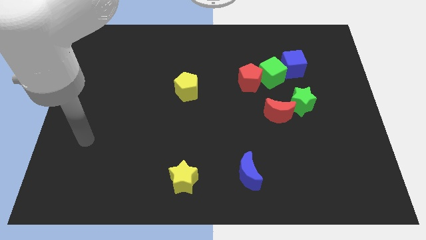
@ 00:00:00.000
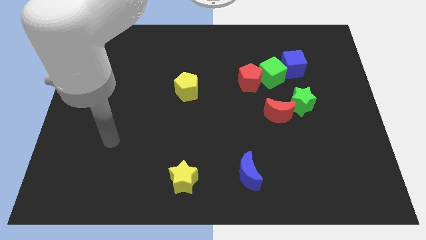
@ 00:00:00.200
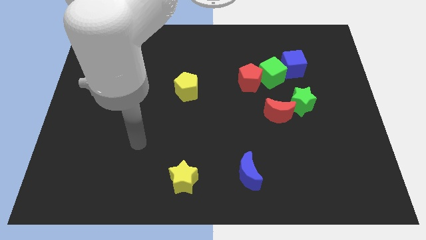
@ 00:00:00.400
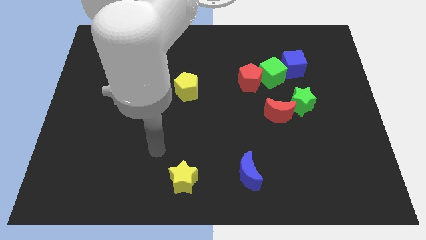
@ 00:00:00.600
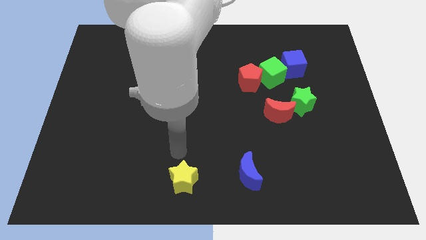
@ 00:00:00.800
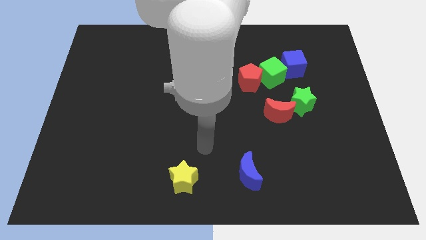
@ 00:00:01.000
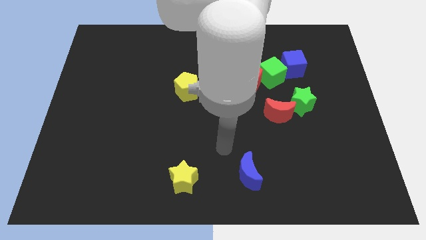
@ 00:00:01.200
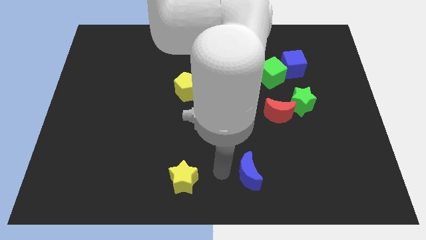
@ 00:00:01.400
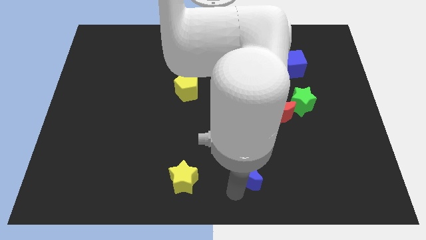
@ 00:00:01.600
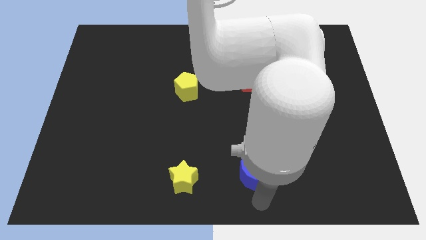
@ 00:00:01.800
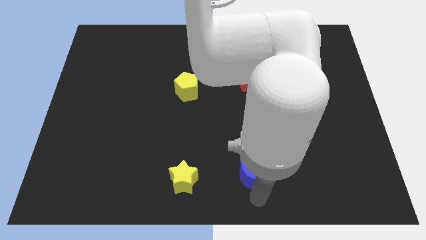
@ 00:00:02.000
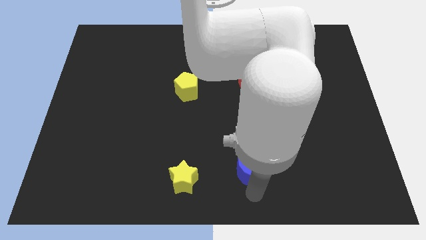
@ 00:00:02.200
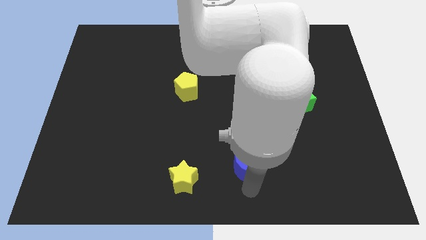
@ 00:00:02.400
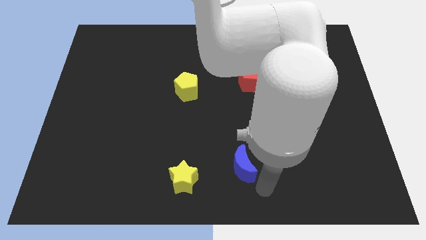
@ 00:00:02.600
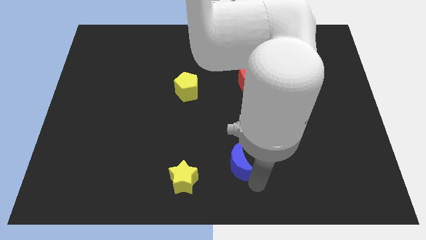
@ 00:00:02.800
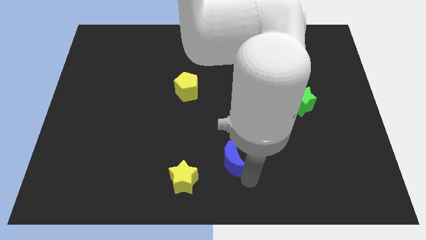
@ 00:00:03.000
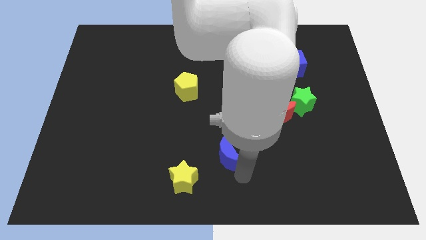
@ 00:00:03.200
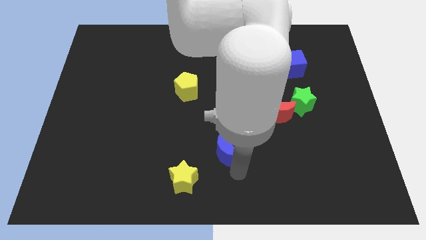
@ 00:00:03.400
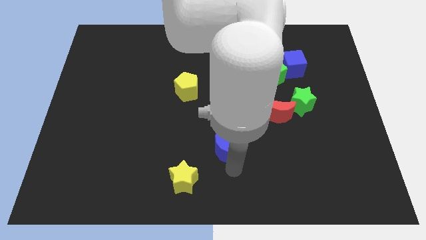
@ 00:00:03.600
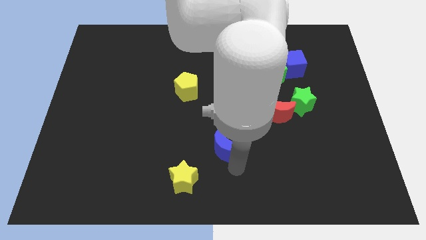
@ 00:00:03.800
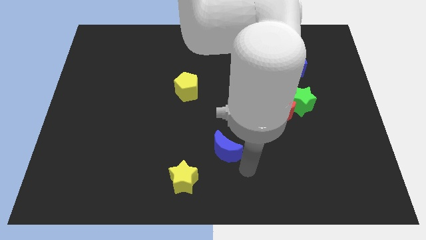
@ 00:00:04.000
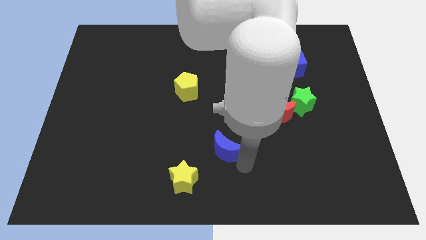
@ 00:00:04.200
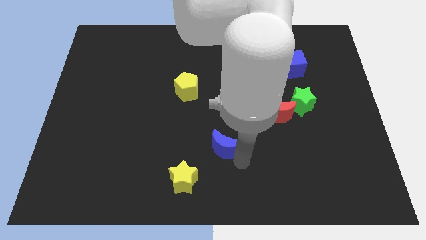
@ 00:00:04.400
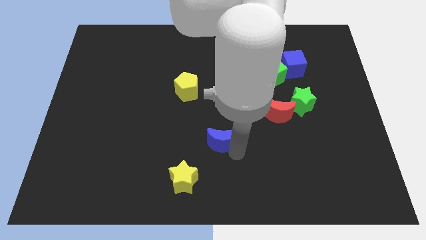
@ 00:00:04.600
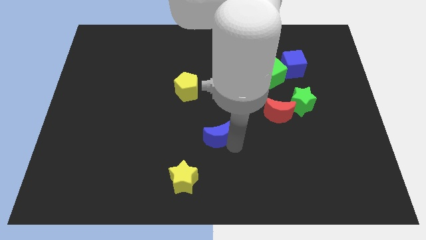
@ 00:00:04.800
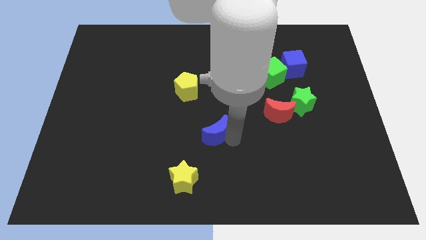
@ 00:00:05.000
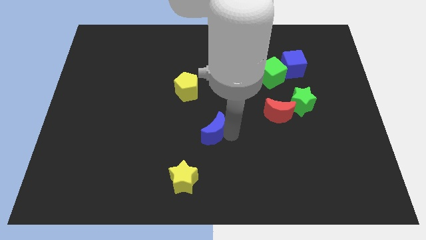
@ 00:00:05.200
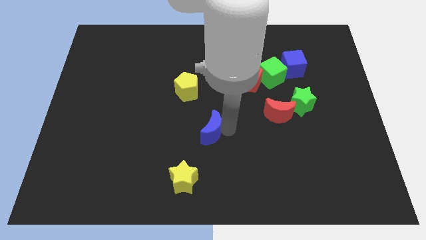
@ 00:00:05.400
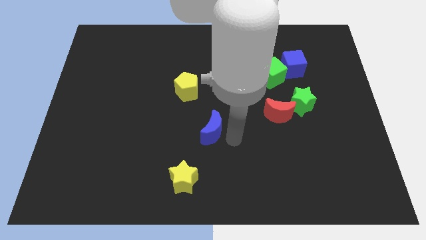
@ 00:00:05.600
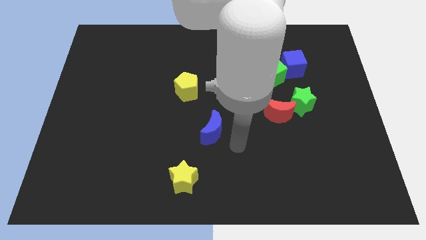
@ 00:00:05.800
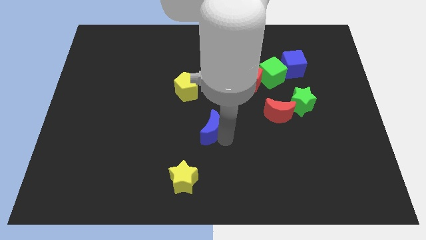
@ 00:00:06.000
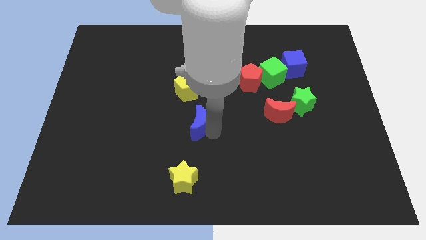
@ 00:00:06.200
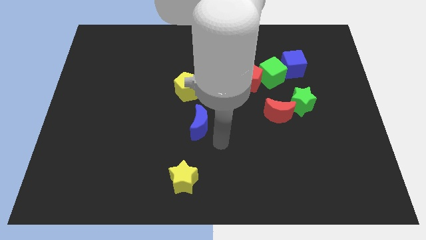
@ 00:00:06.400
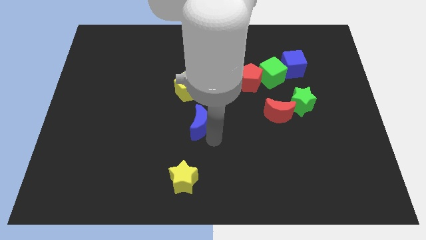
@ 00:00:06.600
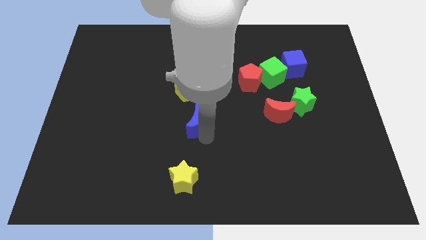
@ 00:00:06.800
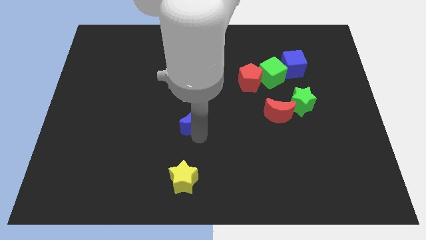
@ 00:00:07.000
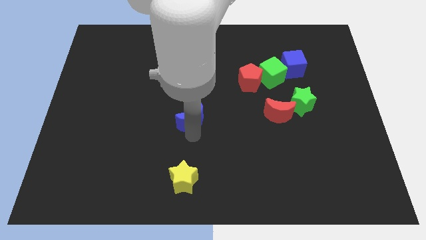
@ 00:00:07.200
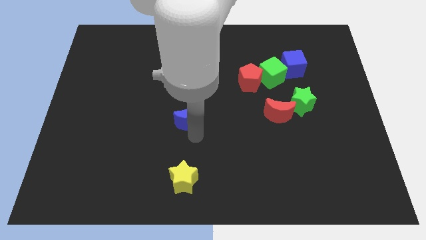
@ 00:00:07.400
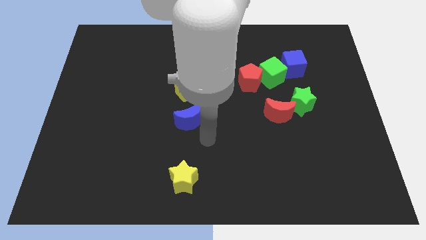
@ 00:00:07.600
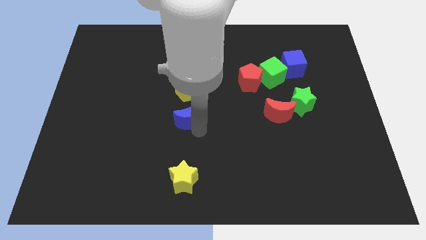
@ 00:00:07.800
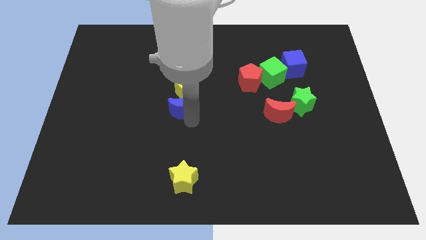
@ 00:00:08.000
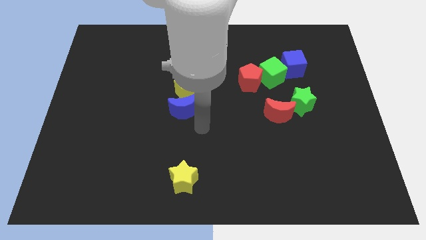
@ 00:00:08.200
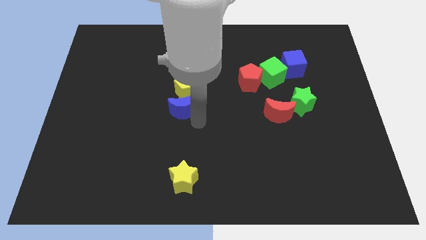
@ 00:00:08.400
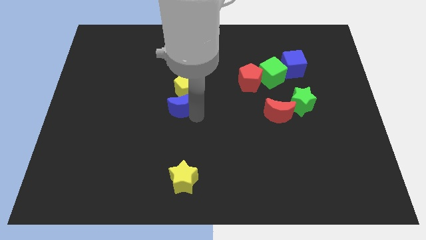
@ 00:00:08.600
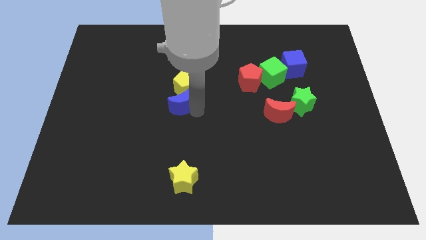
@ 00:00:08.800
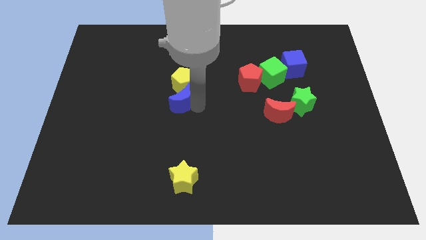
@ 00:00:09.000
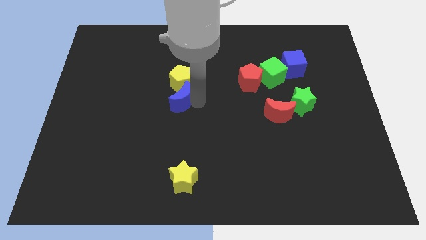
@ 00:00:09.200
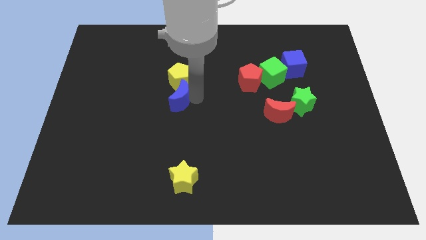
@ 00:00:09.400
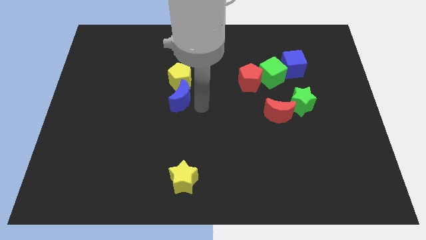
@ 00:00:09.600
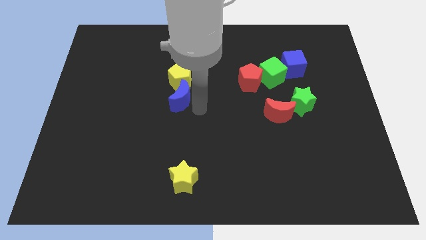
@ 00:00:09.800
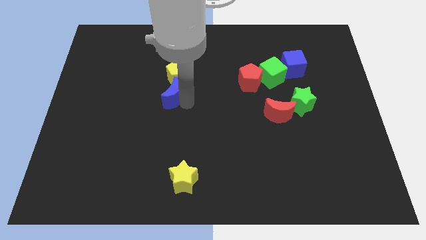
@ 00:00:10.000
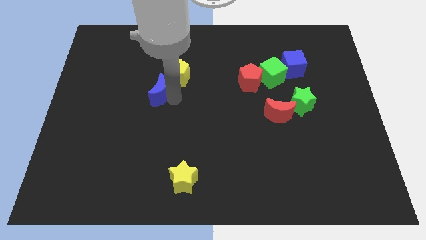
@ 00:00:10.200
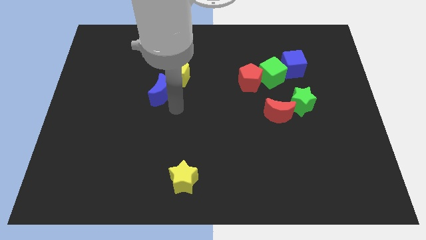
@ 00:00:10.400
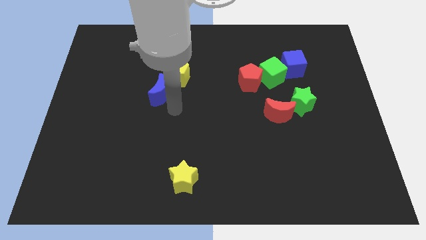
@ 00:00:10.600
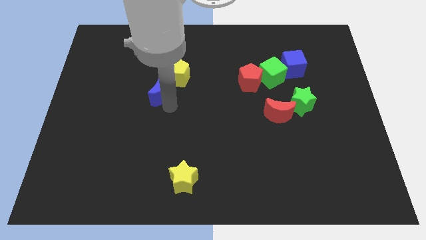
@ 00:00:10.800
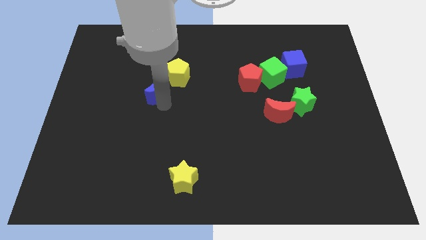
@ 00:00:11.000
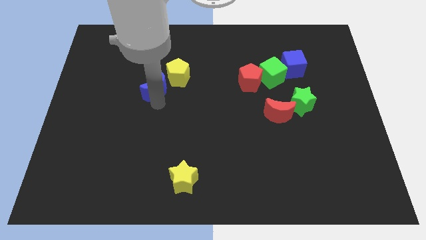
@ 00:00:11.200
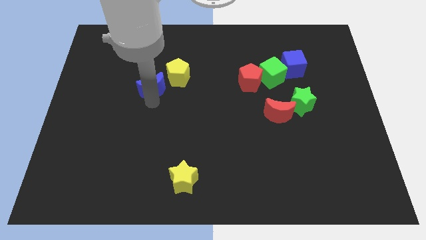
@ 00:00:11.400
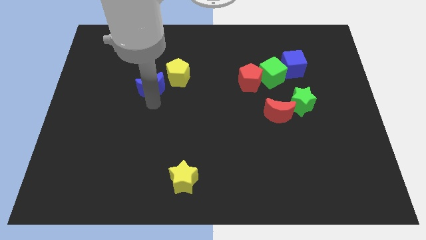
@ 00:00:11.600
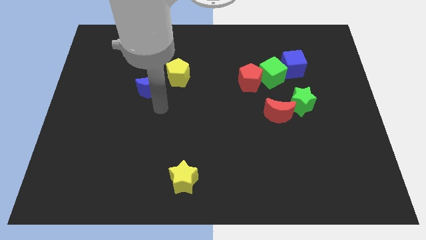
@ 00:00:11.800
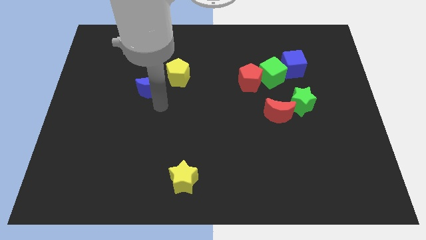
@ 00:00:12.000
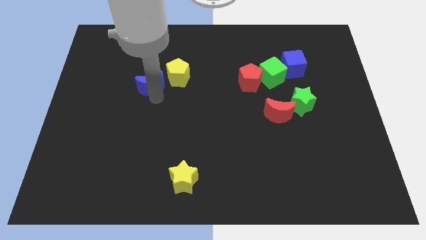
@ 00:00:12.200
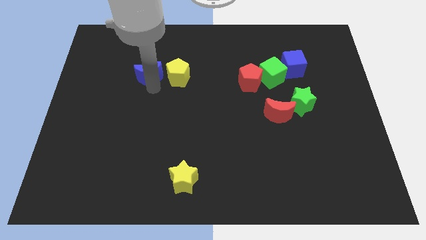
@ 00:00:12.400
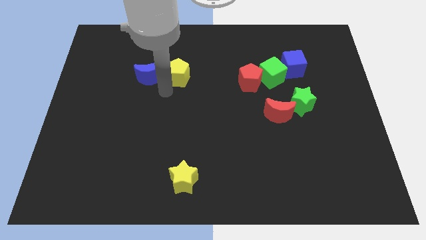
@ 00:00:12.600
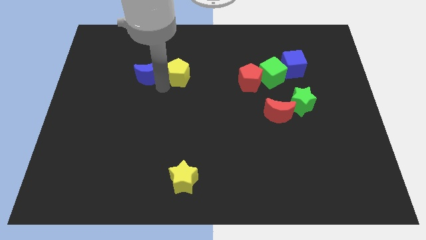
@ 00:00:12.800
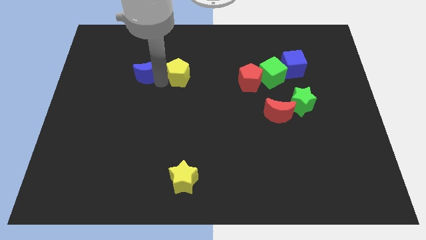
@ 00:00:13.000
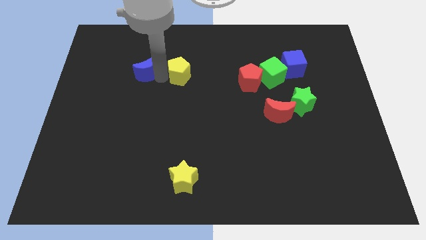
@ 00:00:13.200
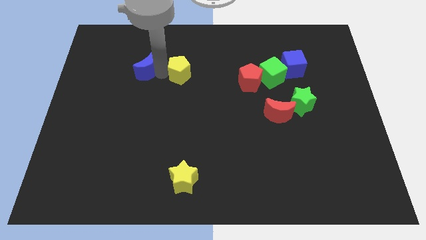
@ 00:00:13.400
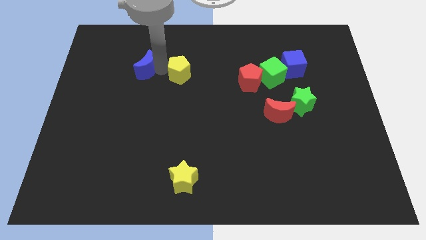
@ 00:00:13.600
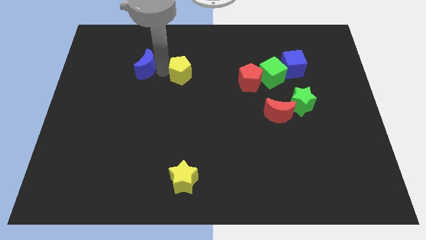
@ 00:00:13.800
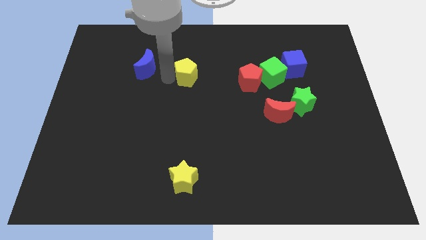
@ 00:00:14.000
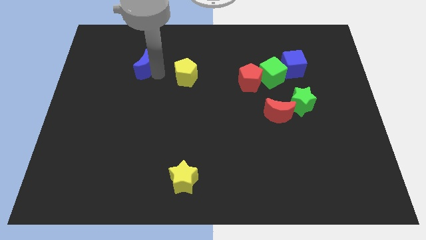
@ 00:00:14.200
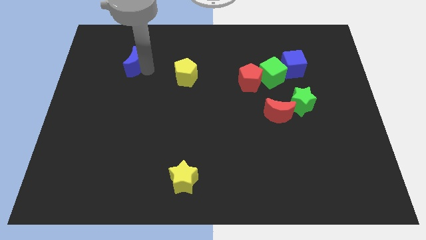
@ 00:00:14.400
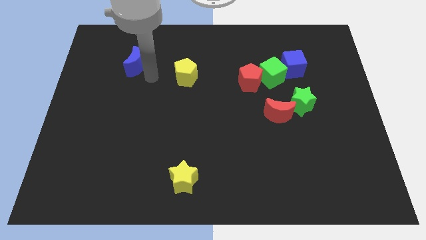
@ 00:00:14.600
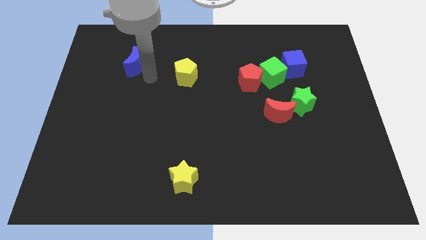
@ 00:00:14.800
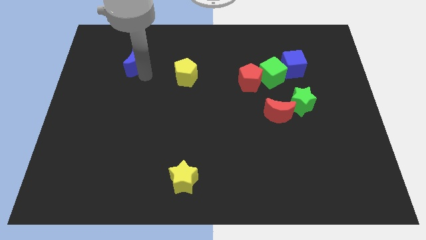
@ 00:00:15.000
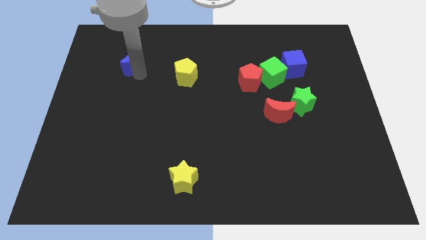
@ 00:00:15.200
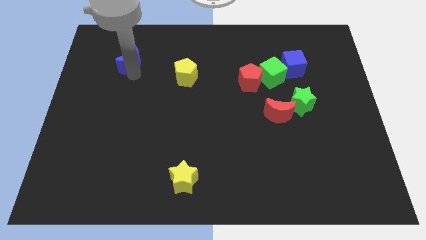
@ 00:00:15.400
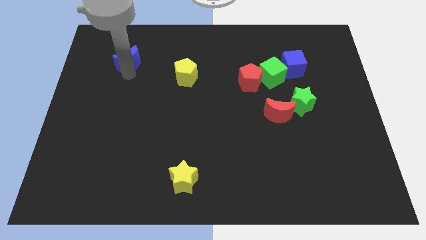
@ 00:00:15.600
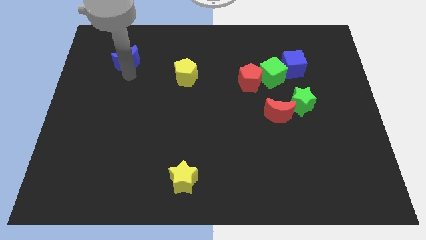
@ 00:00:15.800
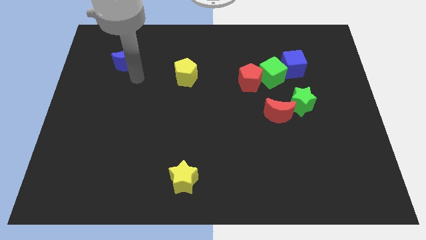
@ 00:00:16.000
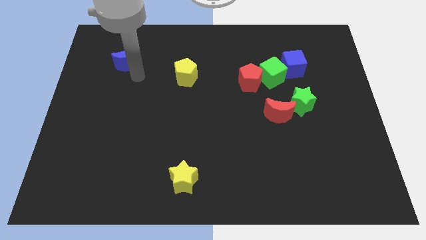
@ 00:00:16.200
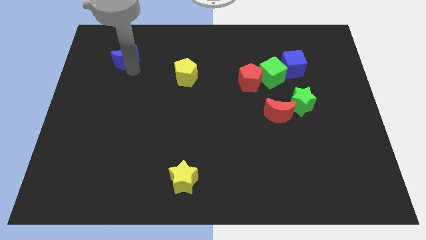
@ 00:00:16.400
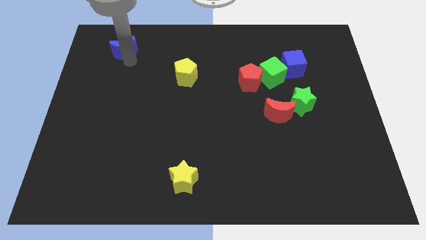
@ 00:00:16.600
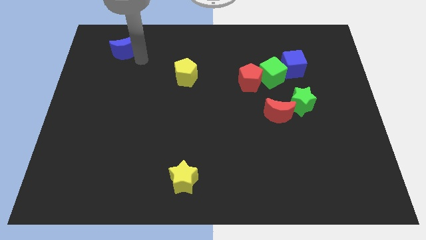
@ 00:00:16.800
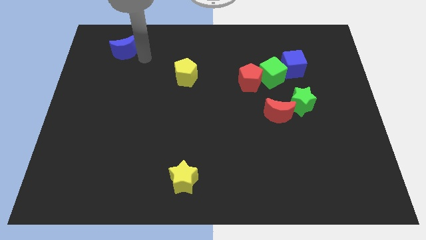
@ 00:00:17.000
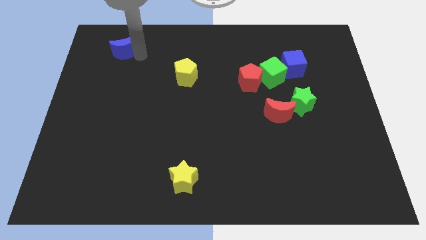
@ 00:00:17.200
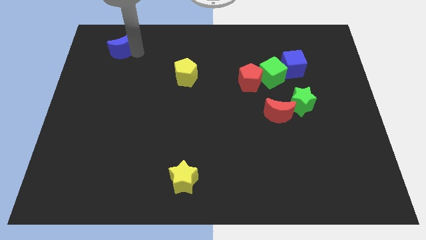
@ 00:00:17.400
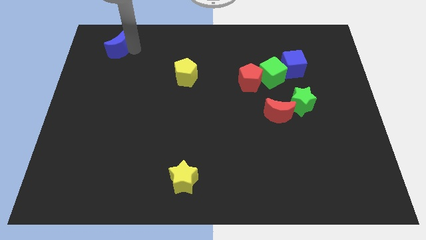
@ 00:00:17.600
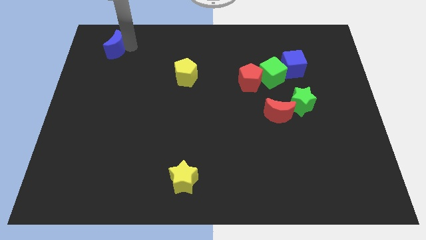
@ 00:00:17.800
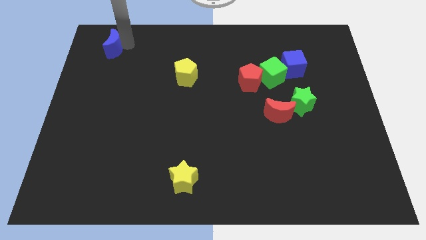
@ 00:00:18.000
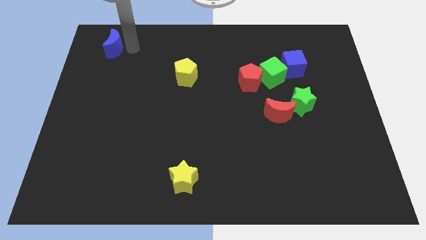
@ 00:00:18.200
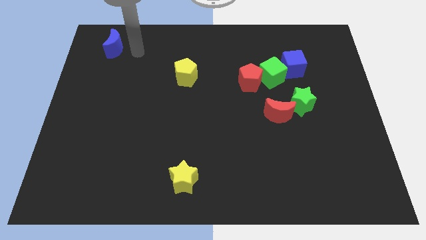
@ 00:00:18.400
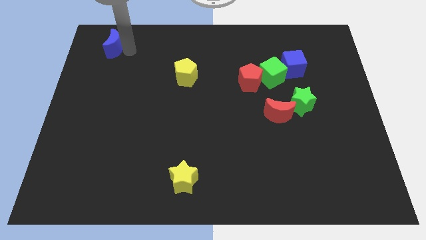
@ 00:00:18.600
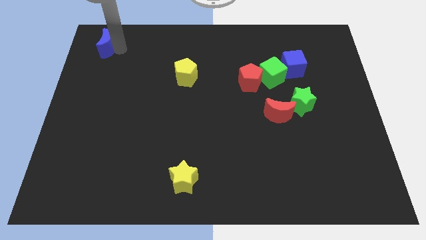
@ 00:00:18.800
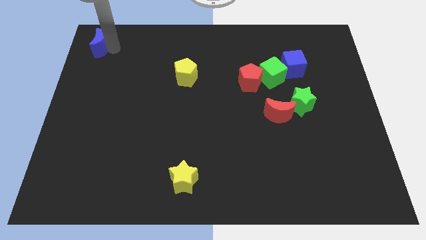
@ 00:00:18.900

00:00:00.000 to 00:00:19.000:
put the blue moon to the upper left corner
